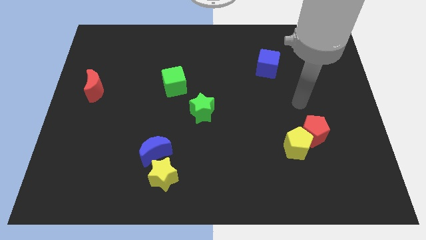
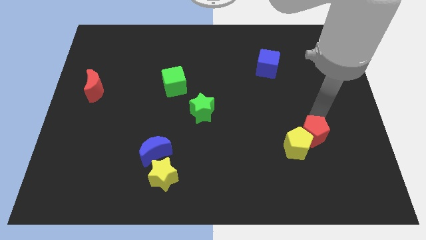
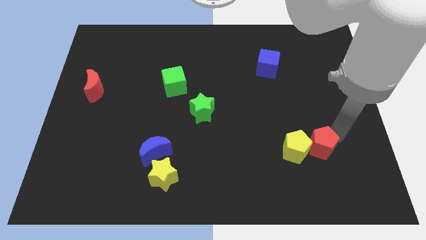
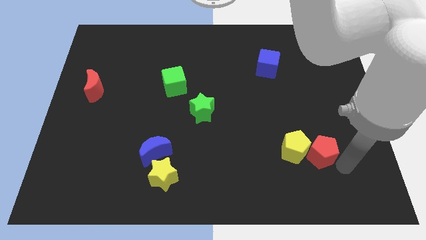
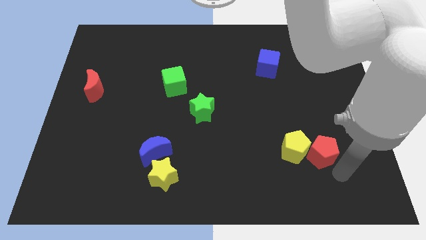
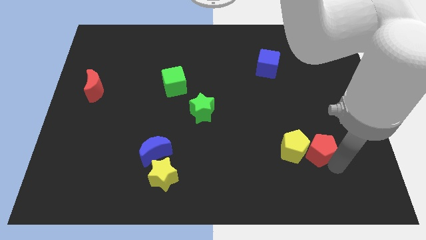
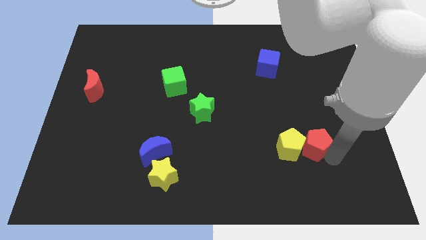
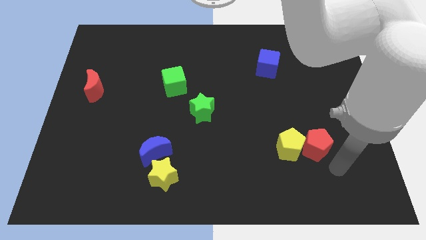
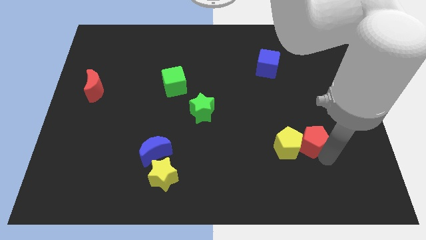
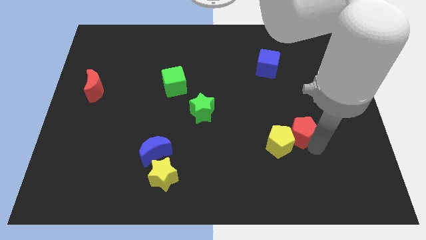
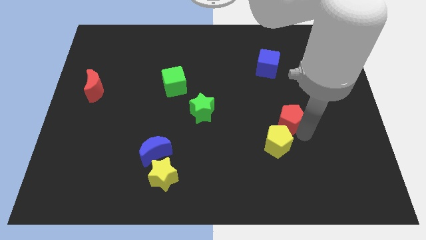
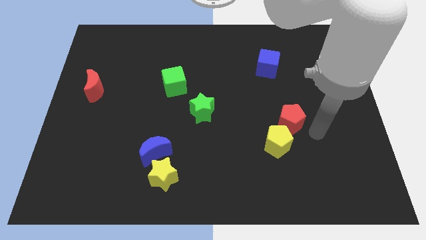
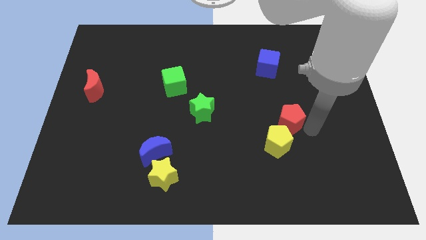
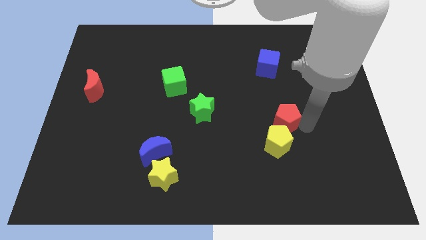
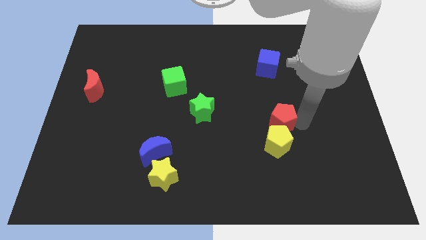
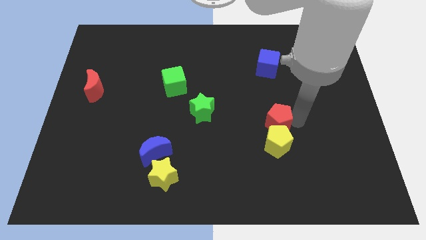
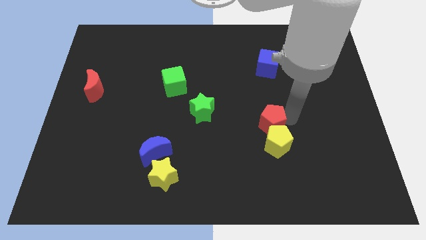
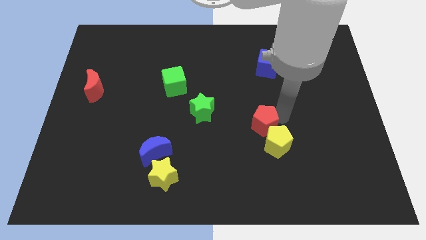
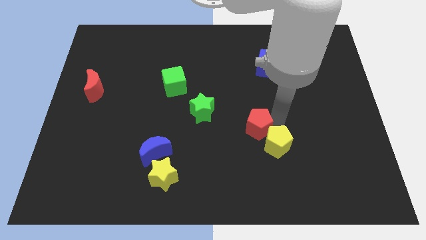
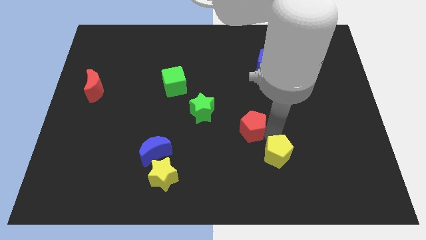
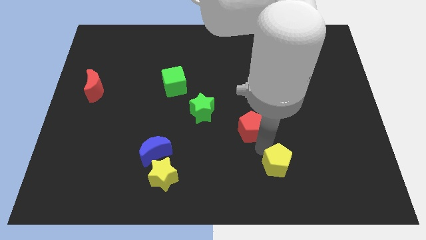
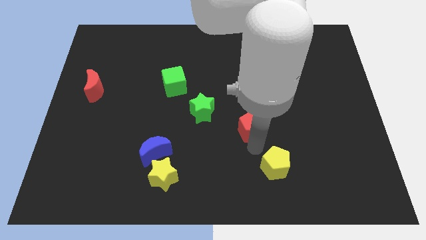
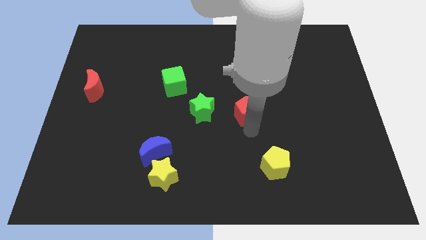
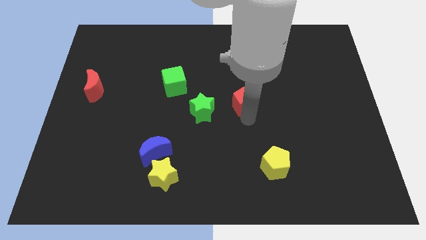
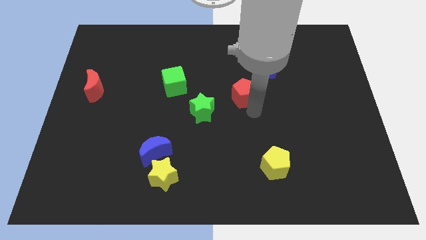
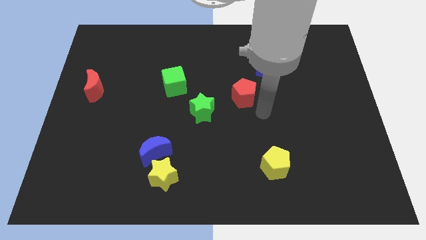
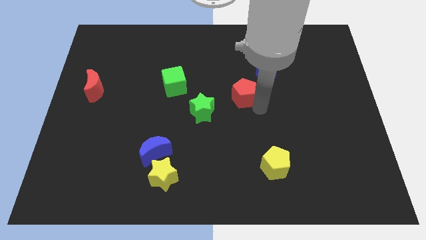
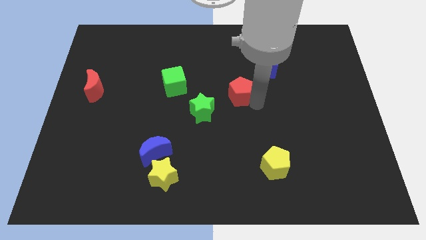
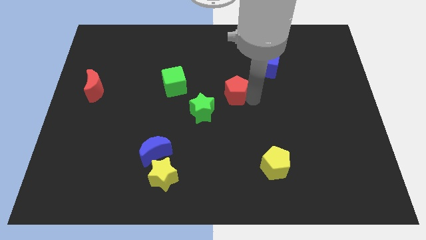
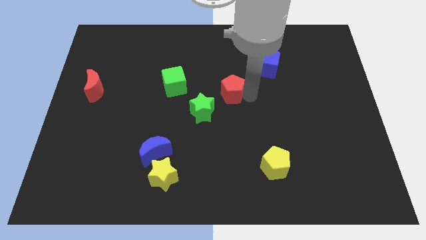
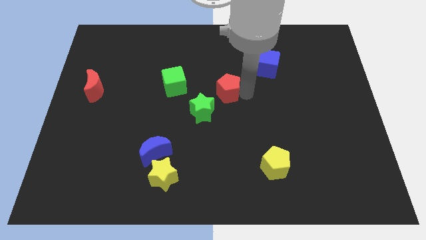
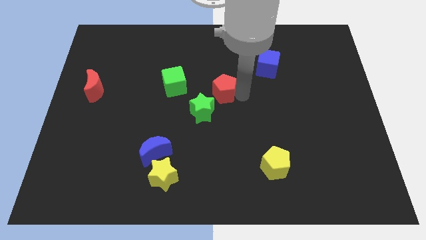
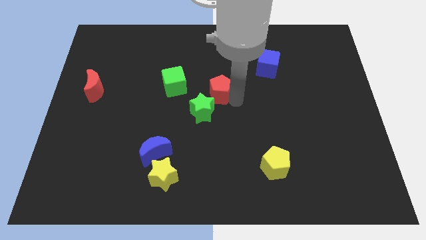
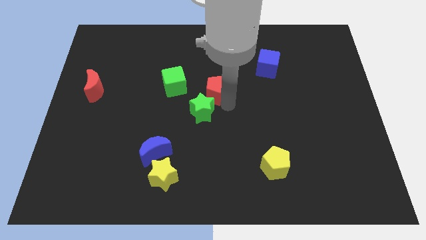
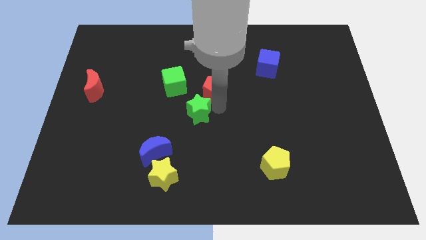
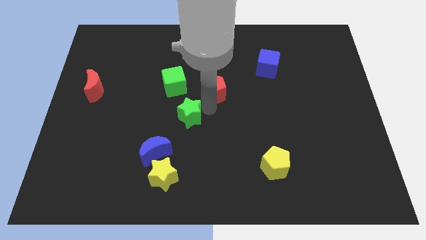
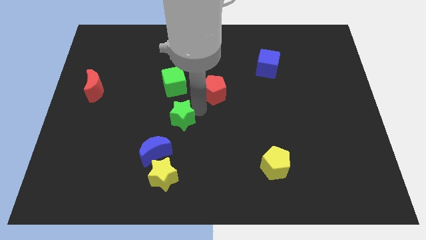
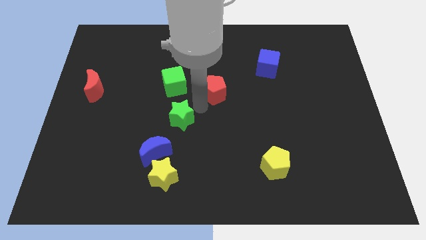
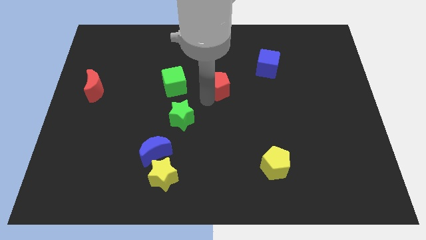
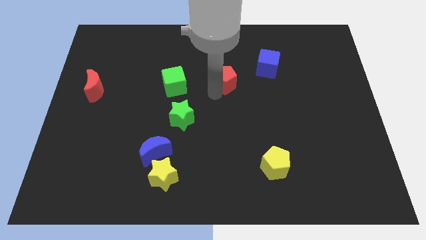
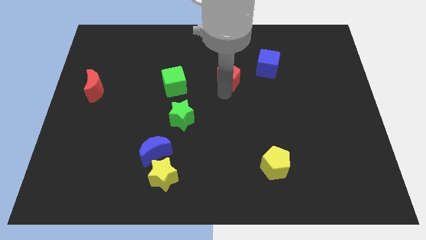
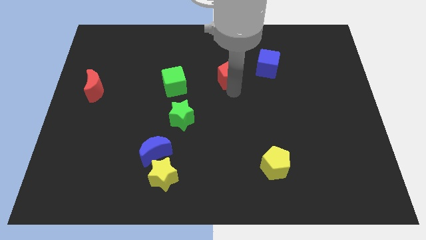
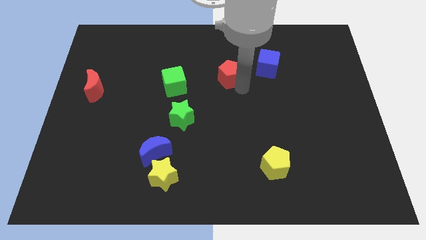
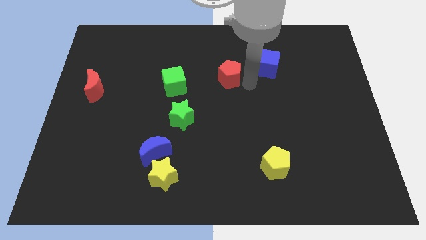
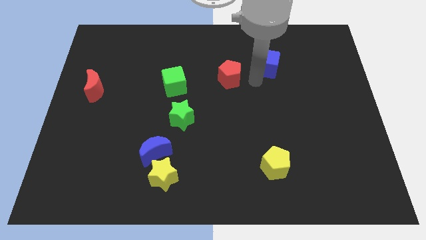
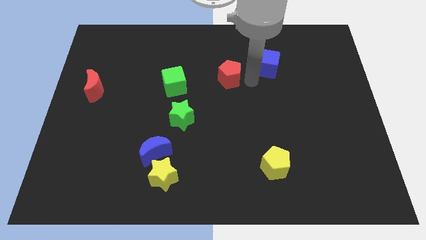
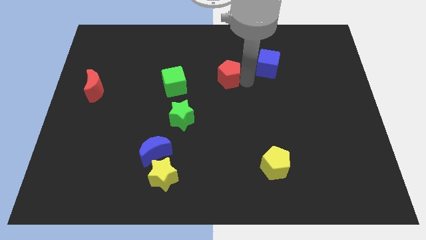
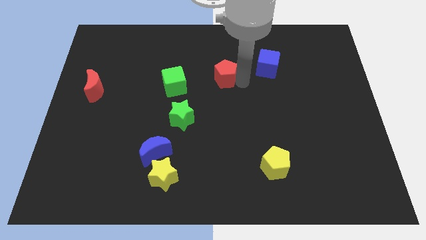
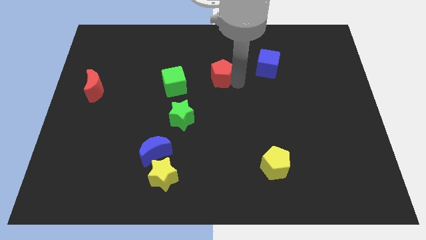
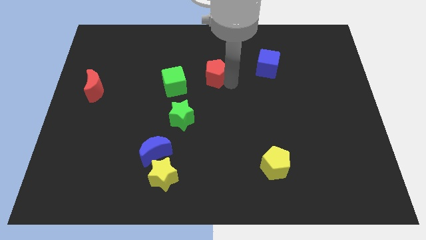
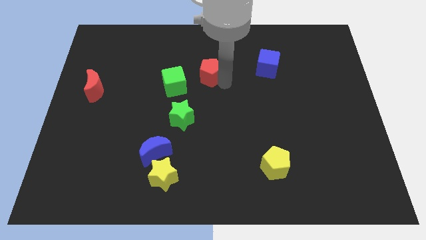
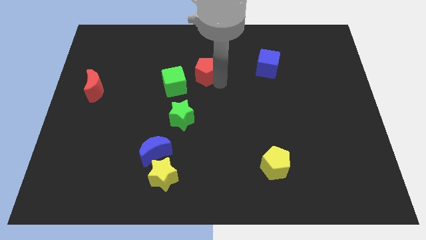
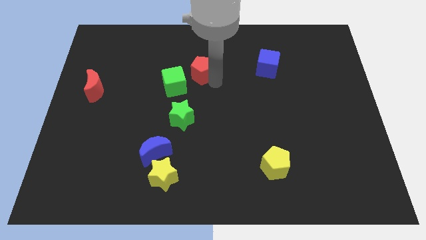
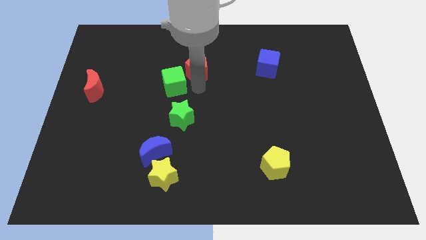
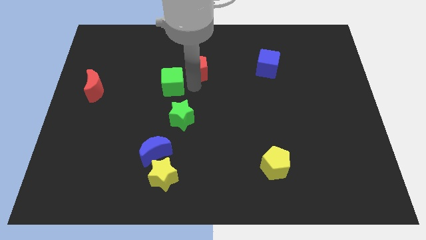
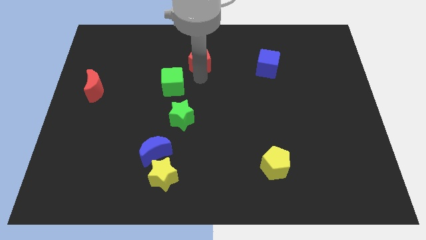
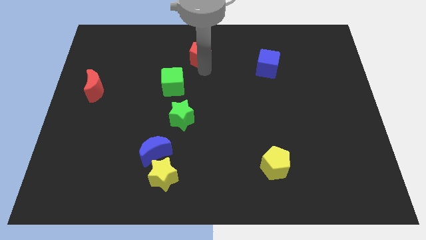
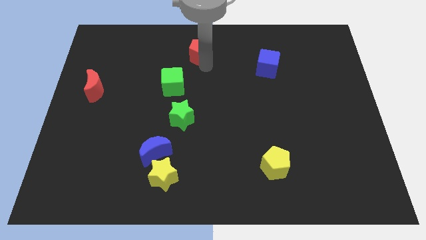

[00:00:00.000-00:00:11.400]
slide the red pentagon to the towards your base

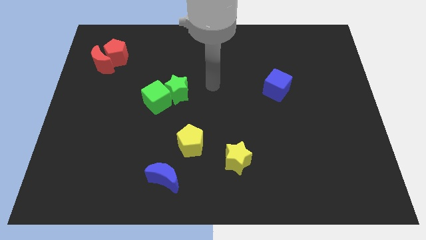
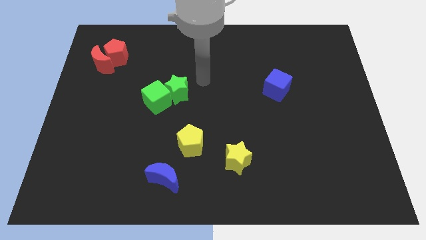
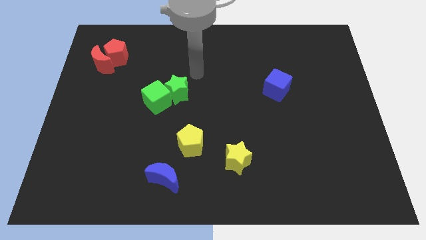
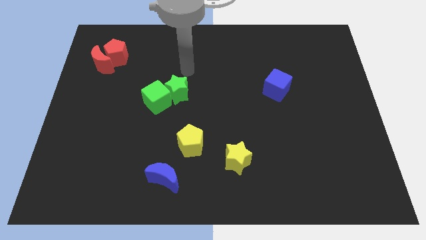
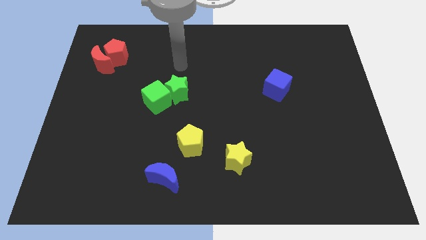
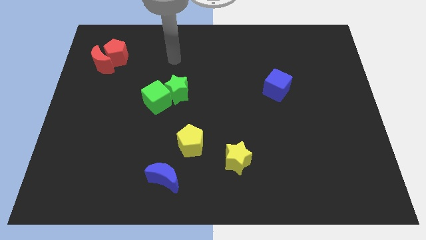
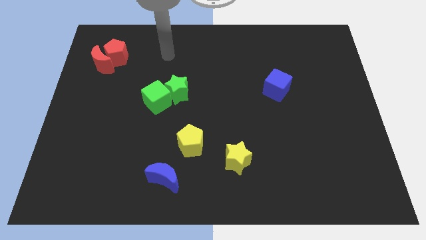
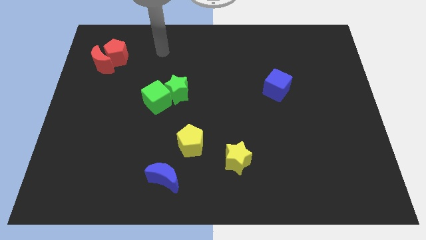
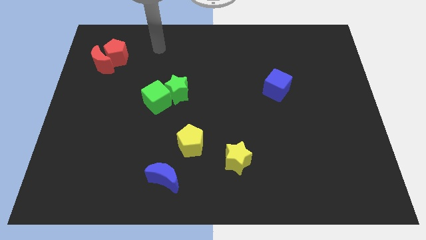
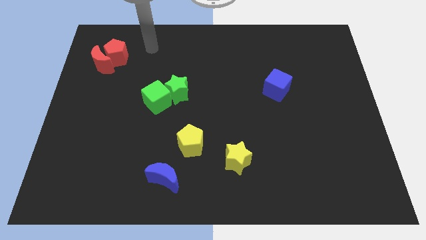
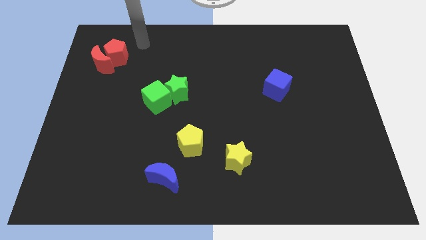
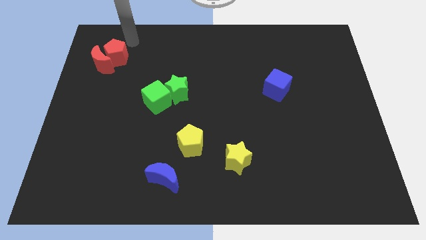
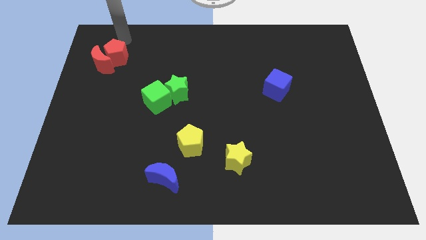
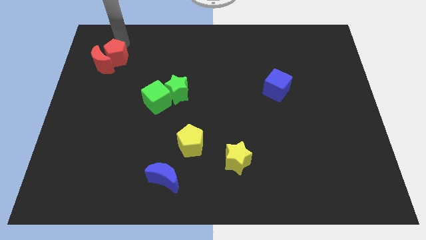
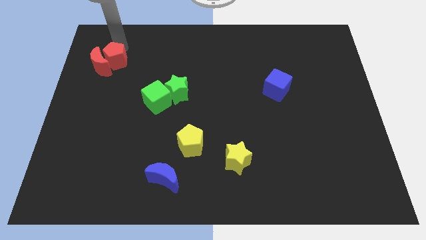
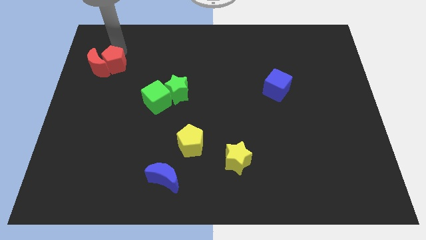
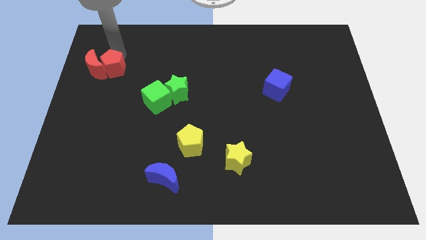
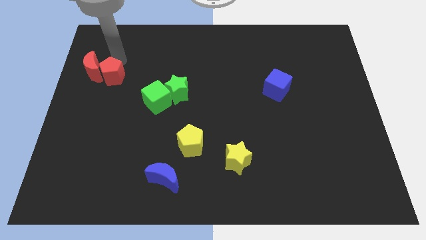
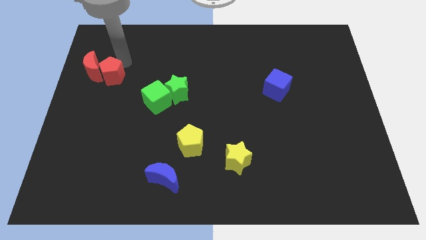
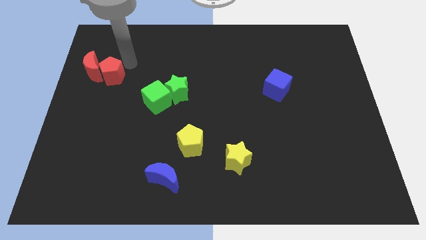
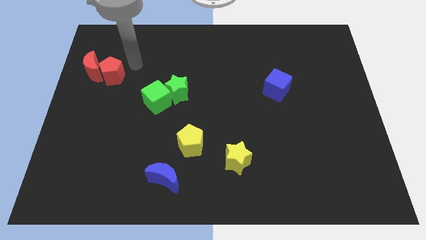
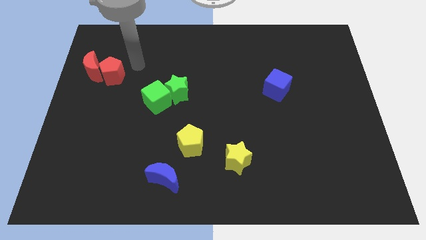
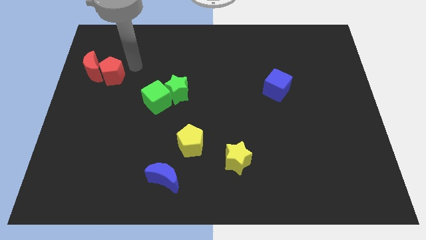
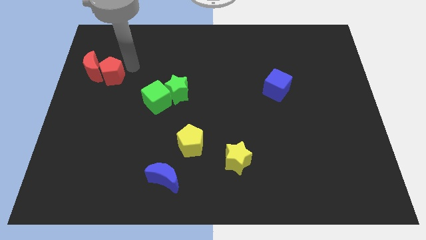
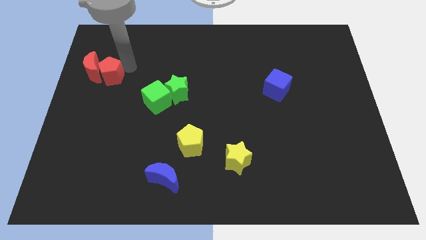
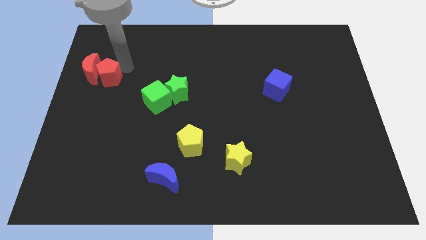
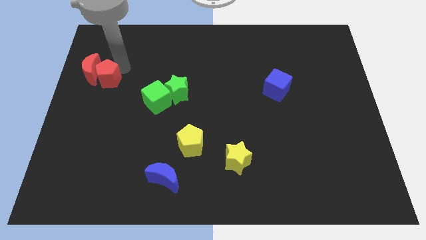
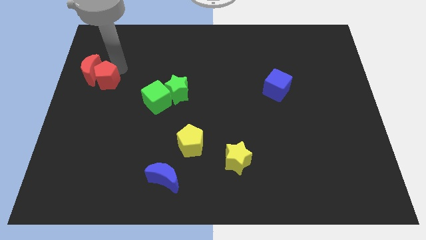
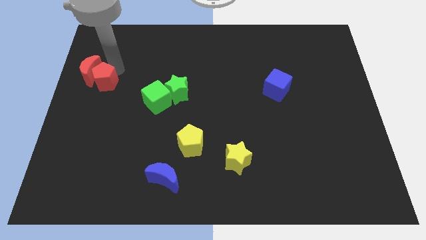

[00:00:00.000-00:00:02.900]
put the red pentagon to the left side
